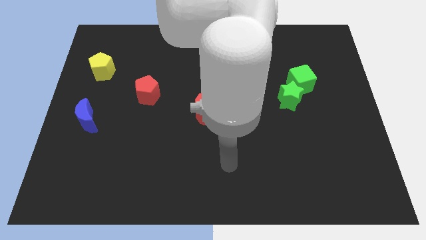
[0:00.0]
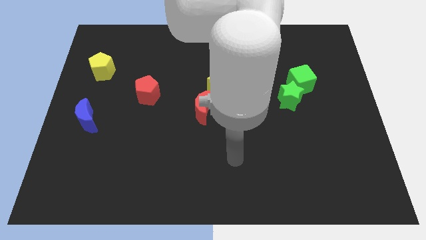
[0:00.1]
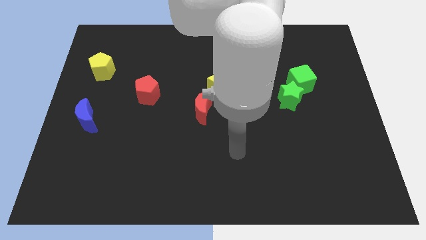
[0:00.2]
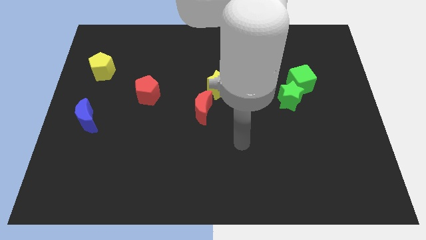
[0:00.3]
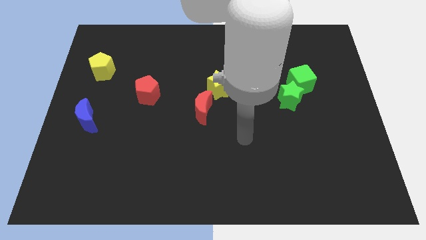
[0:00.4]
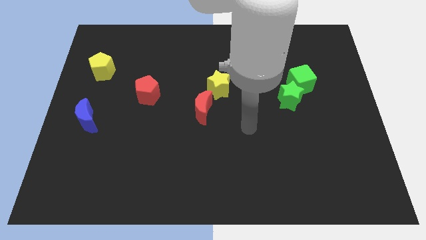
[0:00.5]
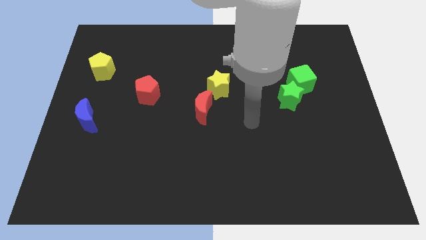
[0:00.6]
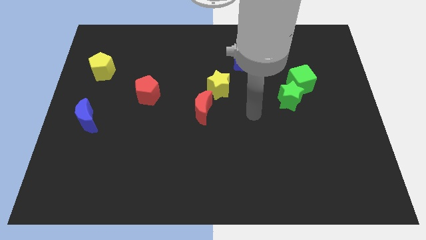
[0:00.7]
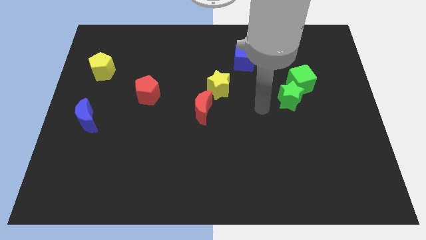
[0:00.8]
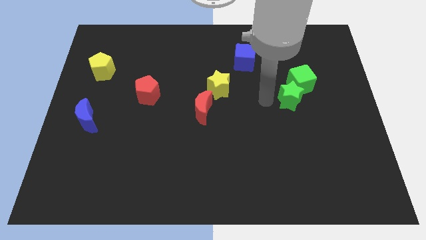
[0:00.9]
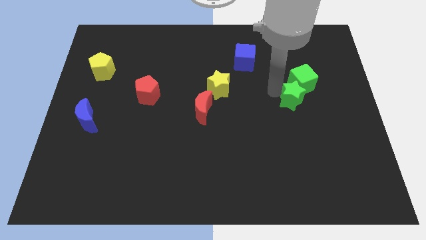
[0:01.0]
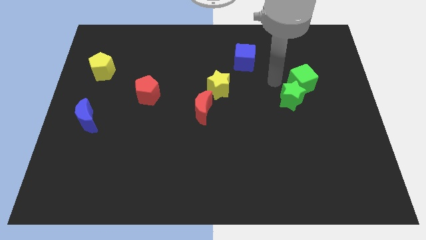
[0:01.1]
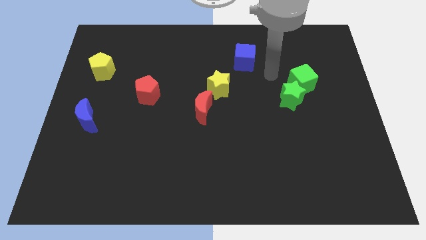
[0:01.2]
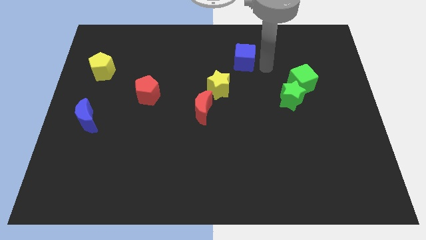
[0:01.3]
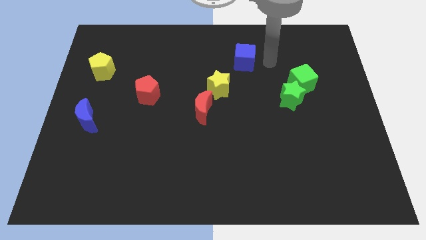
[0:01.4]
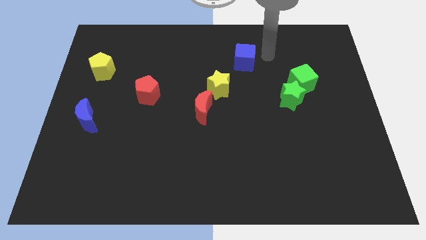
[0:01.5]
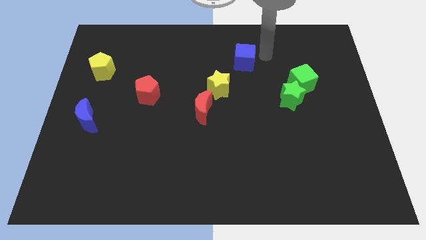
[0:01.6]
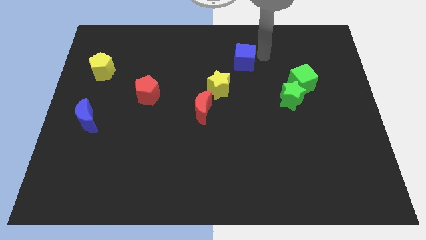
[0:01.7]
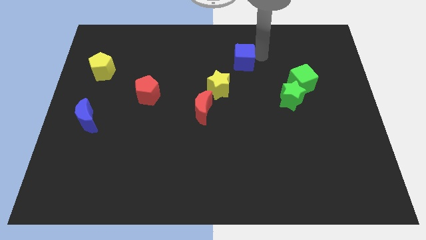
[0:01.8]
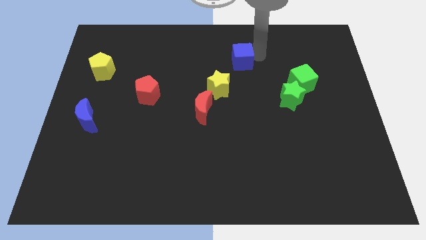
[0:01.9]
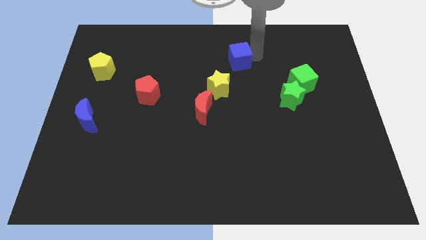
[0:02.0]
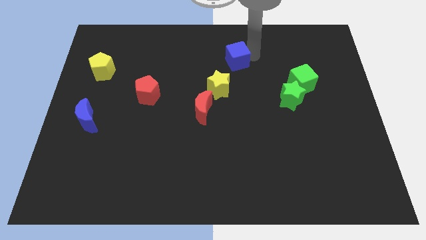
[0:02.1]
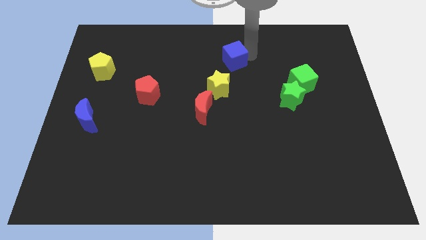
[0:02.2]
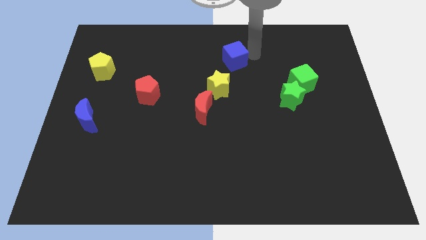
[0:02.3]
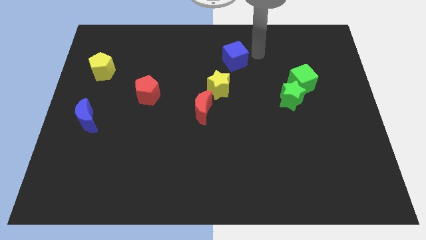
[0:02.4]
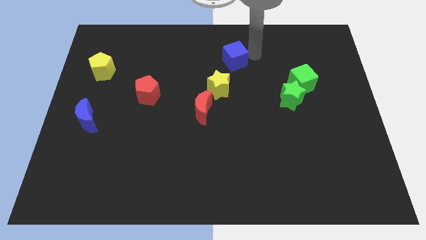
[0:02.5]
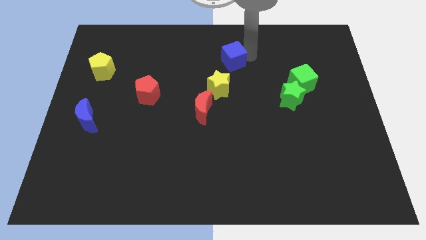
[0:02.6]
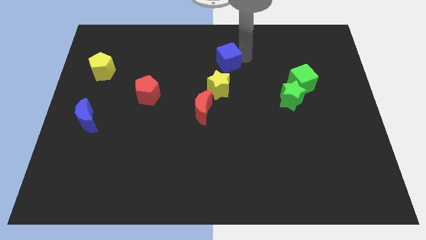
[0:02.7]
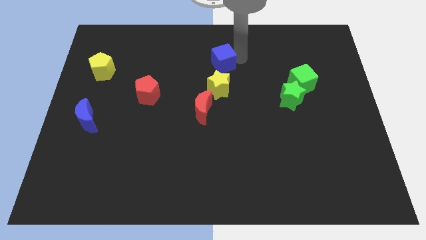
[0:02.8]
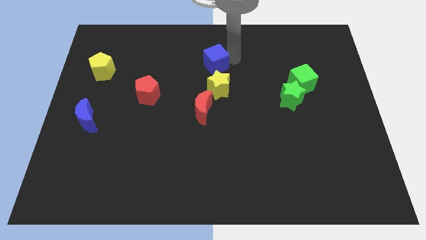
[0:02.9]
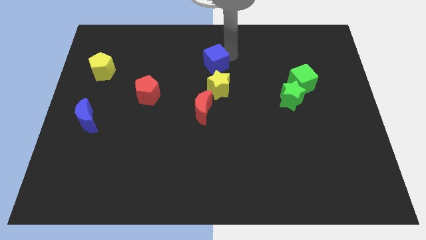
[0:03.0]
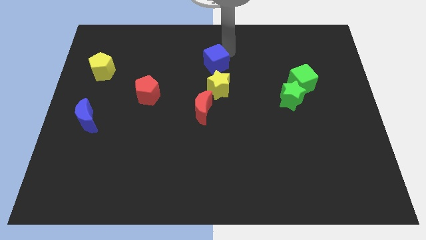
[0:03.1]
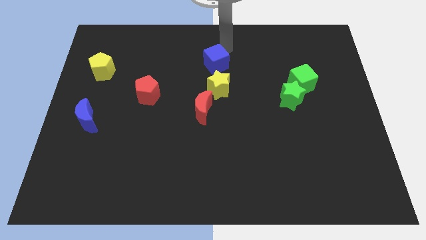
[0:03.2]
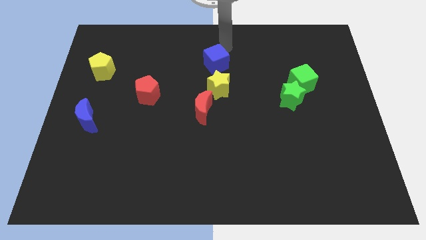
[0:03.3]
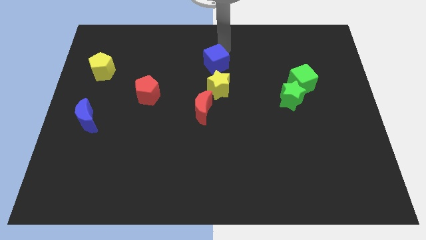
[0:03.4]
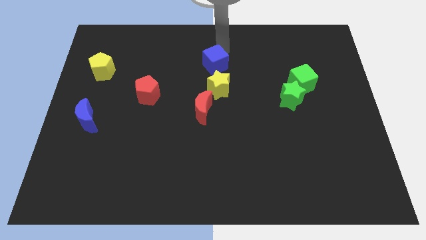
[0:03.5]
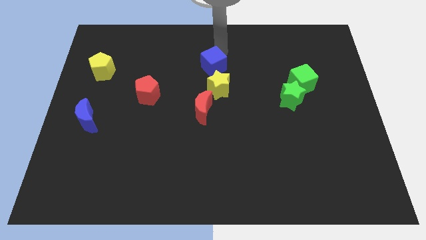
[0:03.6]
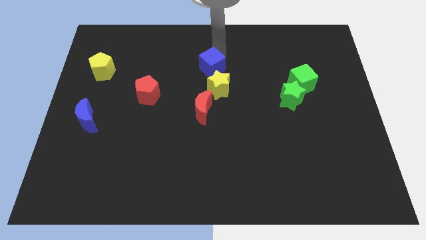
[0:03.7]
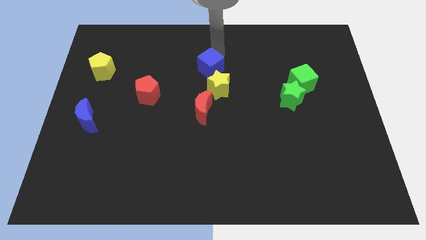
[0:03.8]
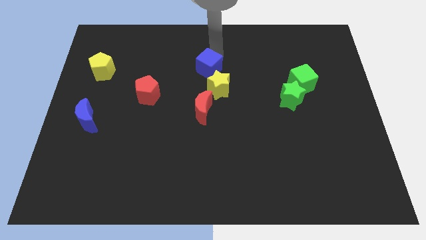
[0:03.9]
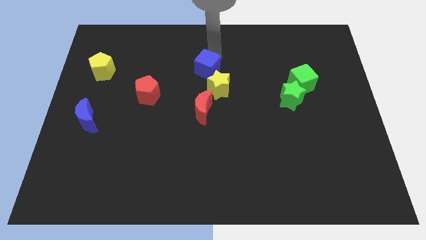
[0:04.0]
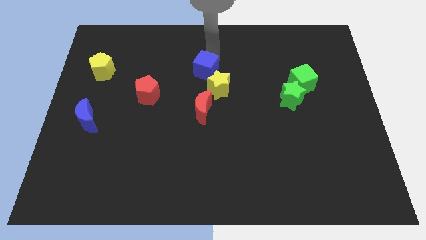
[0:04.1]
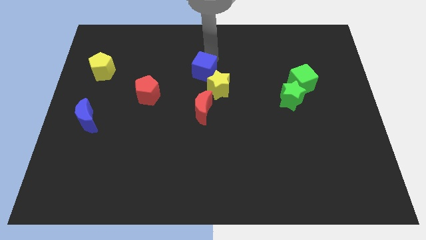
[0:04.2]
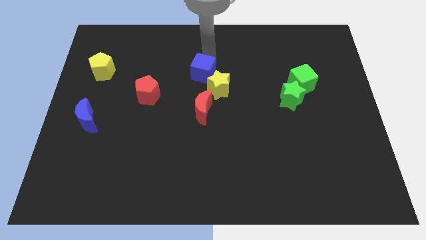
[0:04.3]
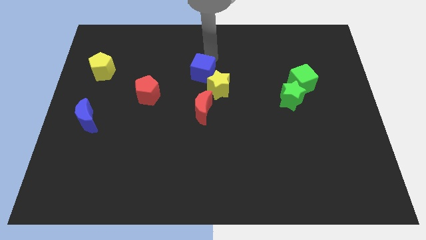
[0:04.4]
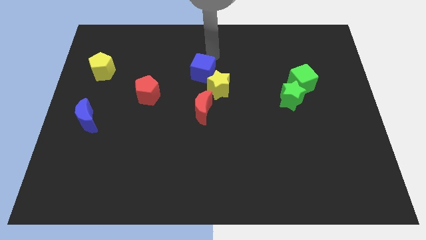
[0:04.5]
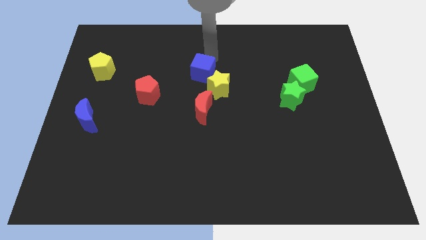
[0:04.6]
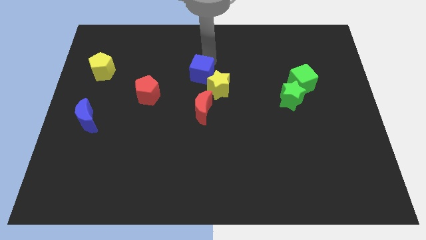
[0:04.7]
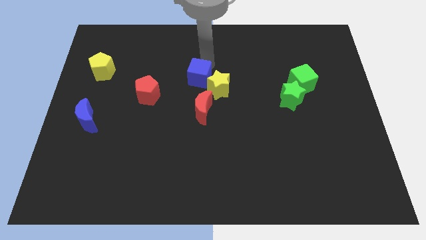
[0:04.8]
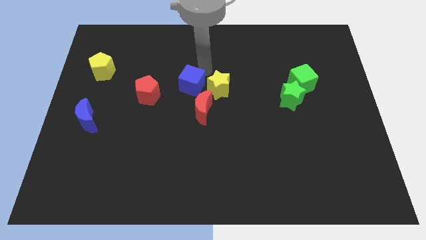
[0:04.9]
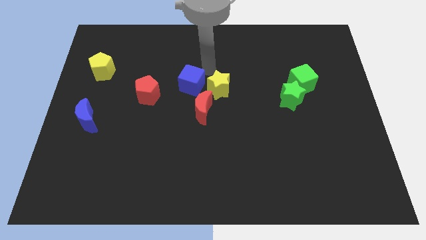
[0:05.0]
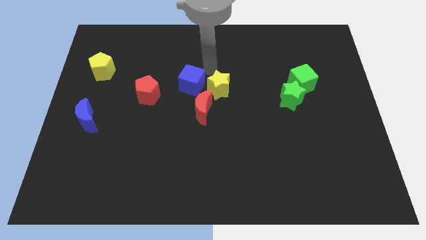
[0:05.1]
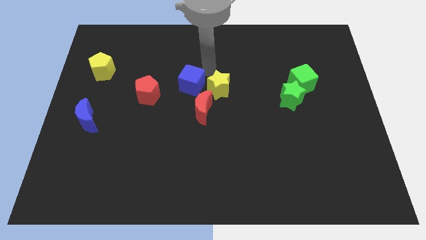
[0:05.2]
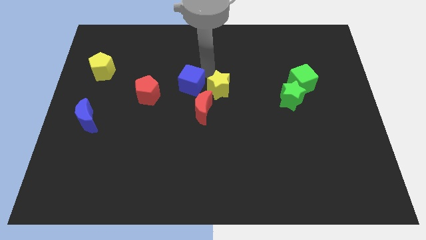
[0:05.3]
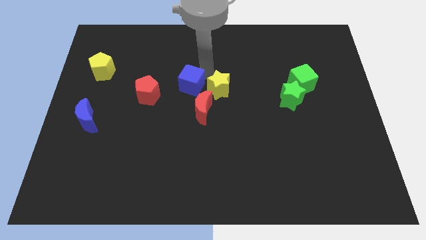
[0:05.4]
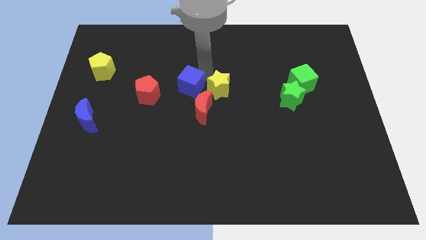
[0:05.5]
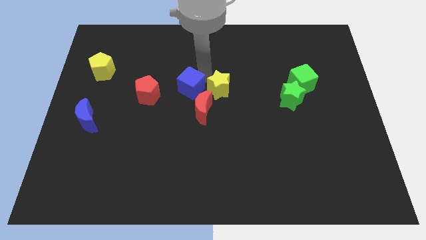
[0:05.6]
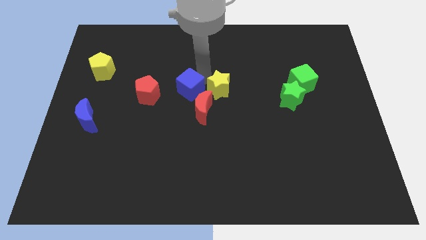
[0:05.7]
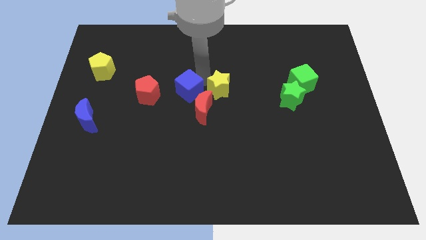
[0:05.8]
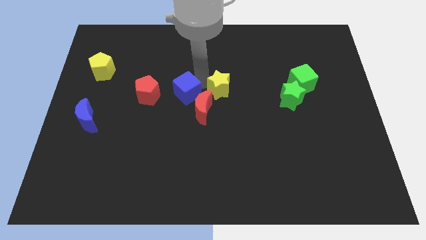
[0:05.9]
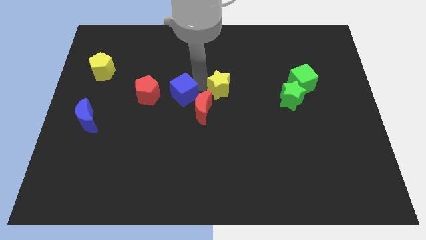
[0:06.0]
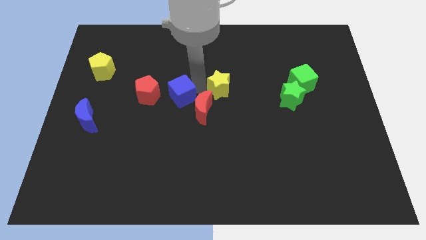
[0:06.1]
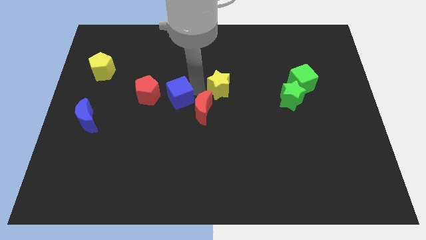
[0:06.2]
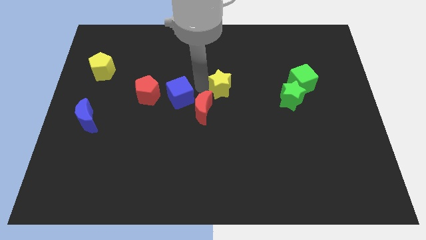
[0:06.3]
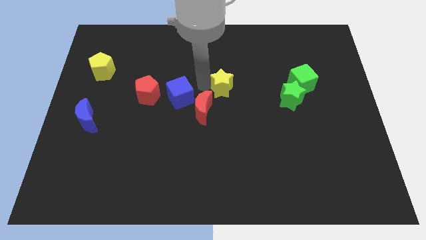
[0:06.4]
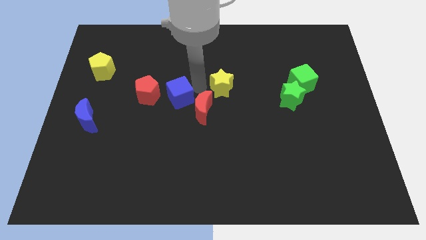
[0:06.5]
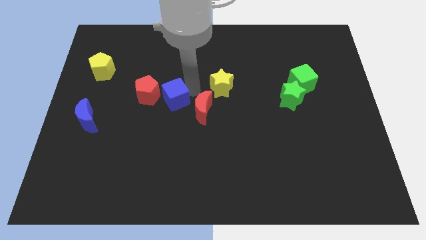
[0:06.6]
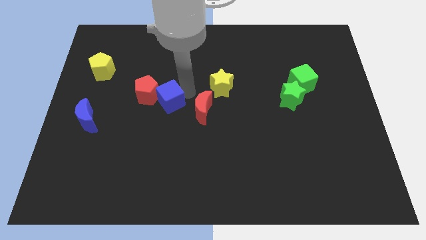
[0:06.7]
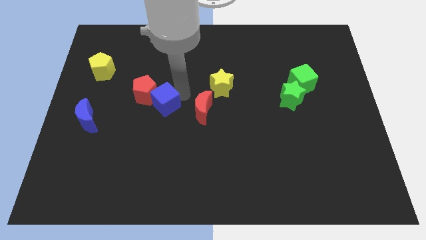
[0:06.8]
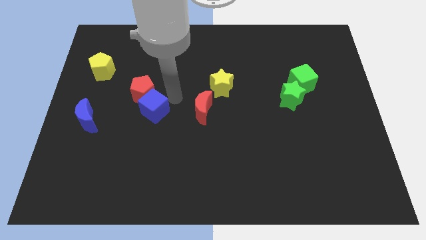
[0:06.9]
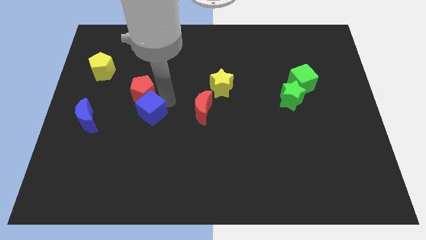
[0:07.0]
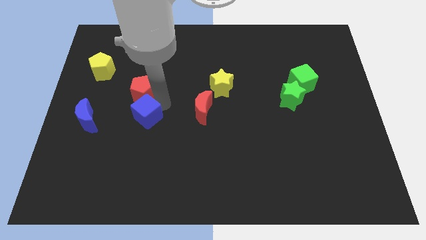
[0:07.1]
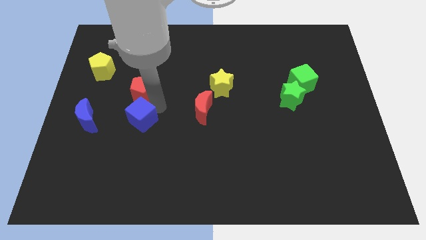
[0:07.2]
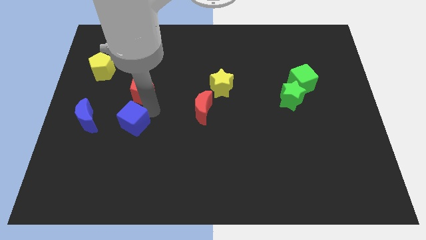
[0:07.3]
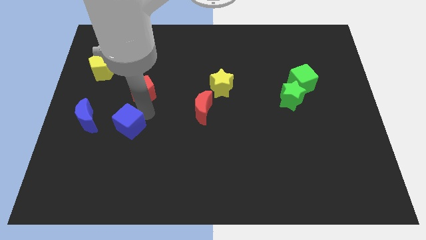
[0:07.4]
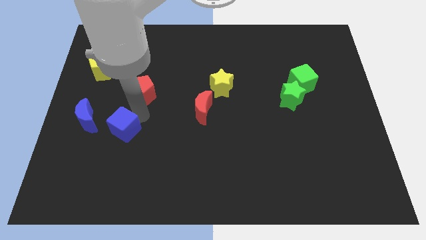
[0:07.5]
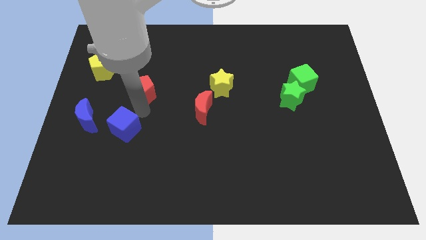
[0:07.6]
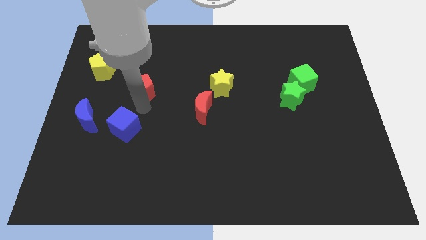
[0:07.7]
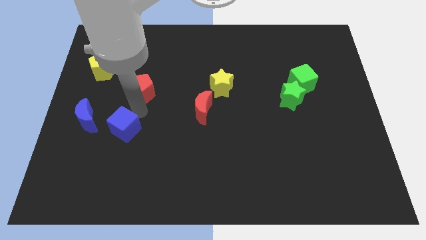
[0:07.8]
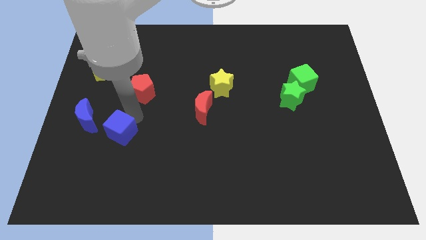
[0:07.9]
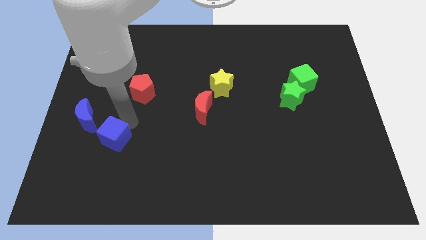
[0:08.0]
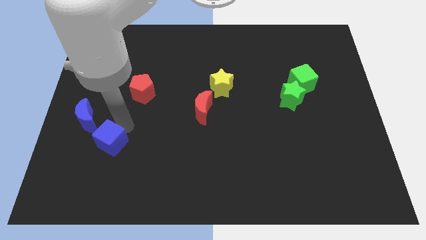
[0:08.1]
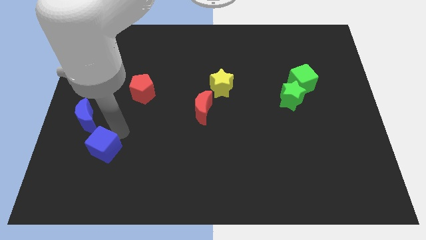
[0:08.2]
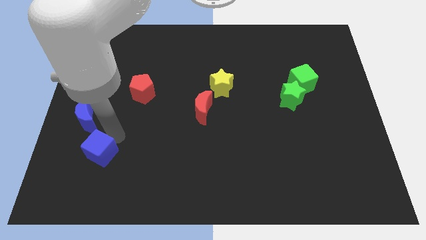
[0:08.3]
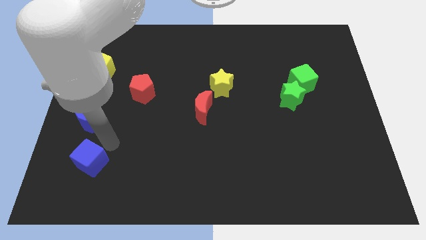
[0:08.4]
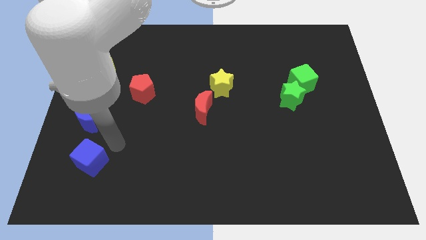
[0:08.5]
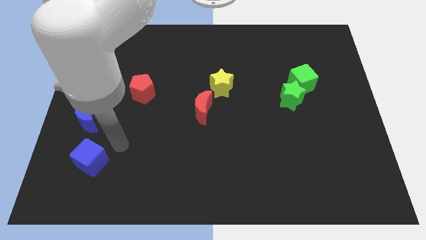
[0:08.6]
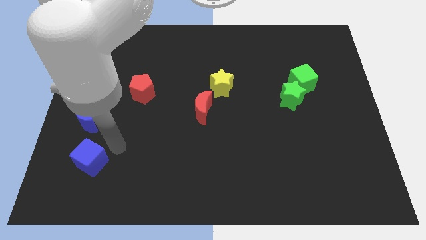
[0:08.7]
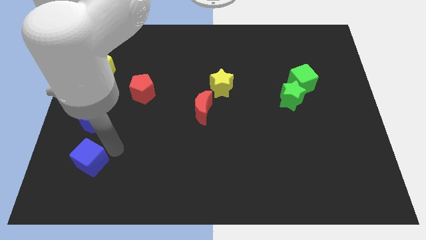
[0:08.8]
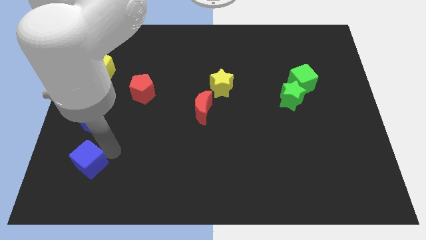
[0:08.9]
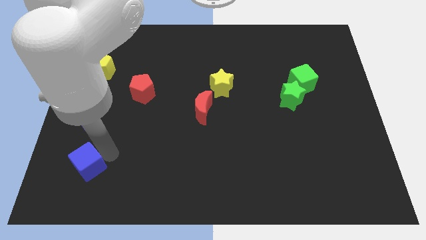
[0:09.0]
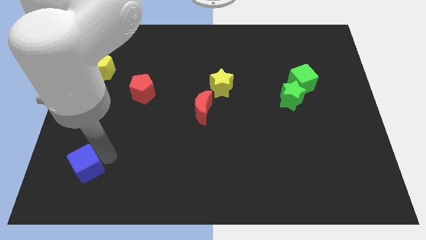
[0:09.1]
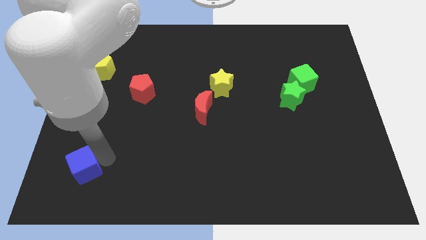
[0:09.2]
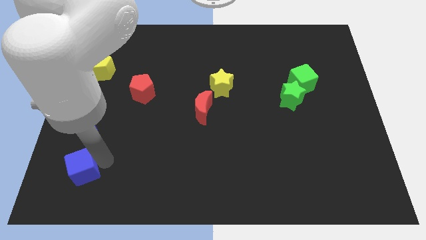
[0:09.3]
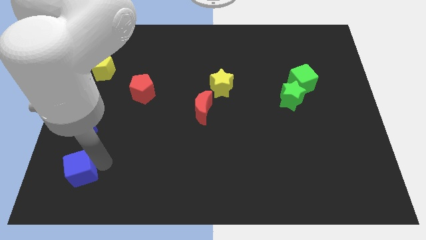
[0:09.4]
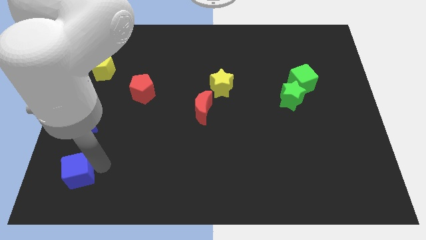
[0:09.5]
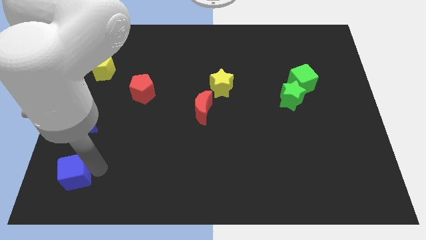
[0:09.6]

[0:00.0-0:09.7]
move the blue cube to the bottom left corner
